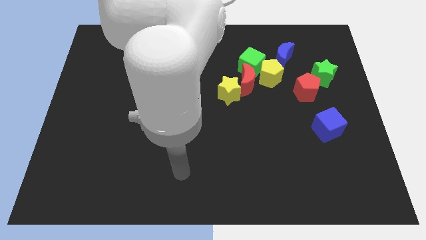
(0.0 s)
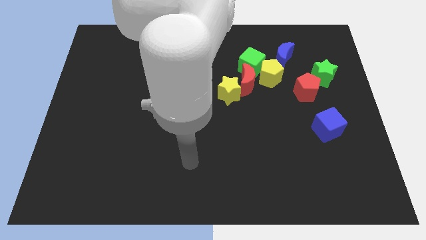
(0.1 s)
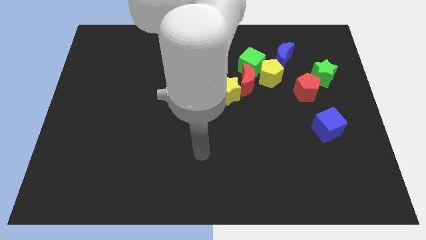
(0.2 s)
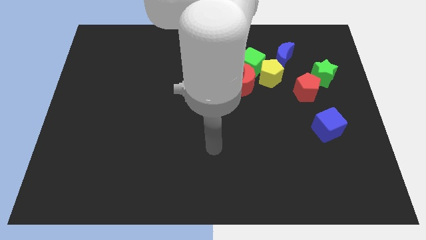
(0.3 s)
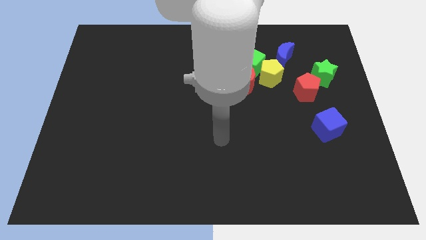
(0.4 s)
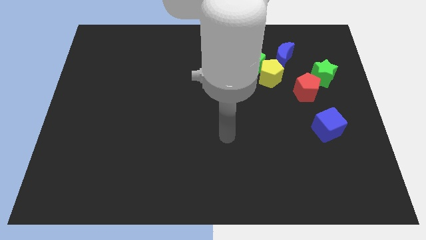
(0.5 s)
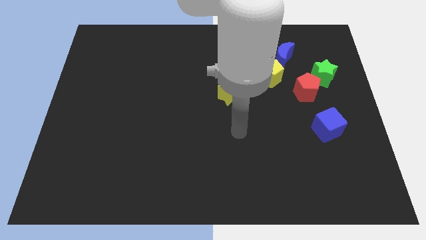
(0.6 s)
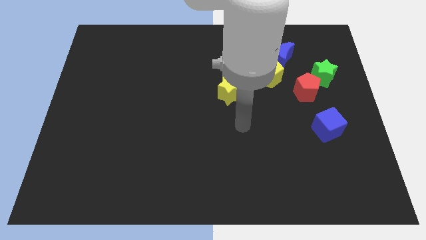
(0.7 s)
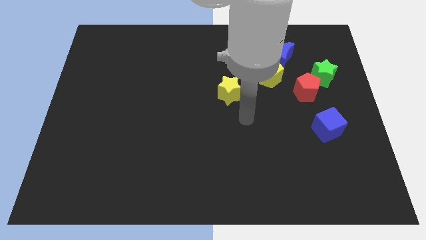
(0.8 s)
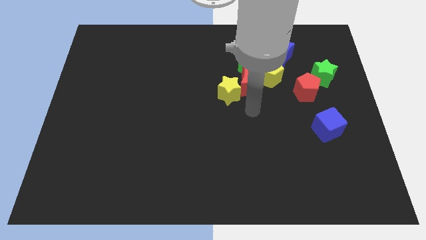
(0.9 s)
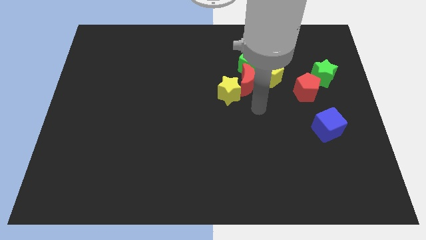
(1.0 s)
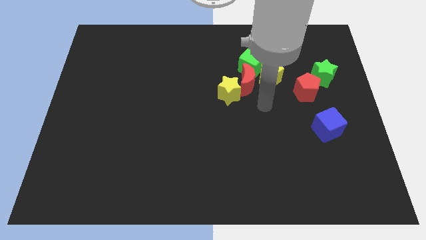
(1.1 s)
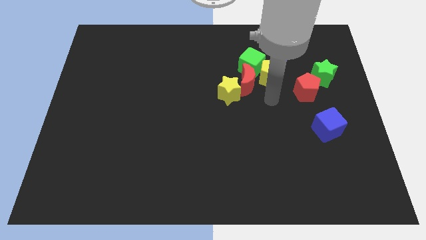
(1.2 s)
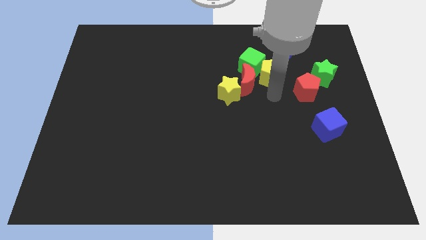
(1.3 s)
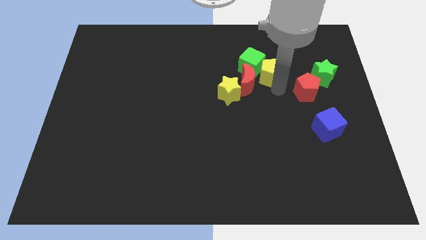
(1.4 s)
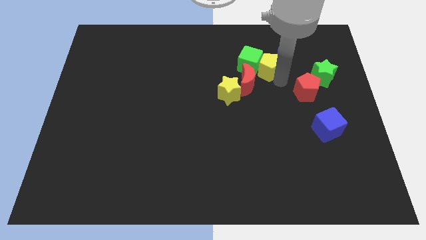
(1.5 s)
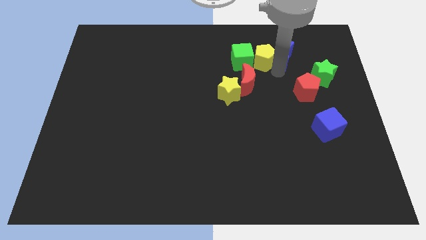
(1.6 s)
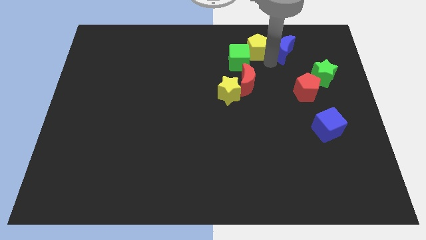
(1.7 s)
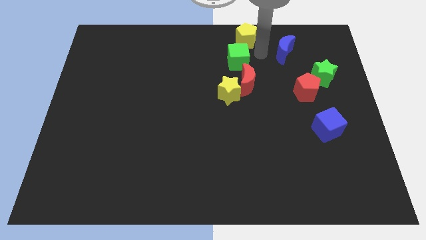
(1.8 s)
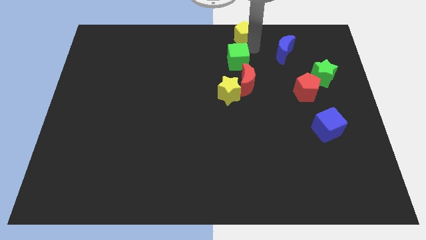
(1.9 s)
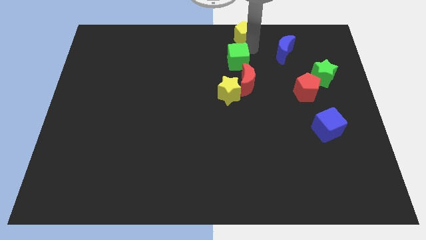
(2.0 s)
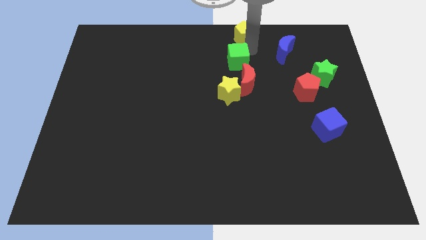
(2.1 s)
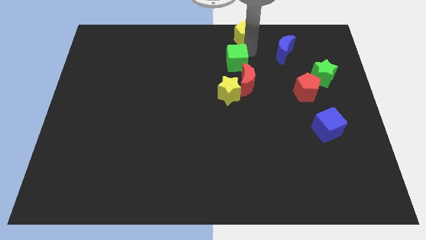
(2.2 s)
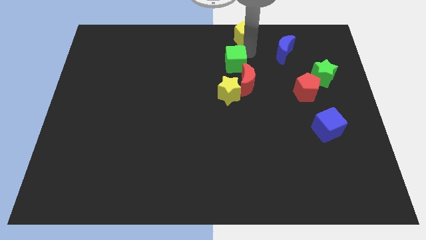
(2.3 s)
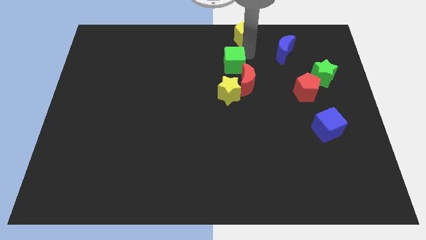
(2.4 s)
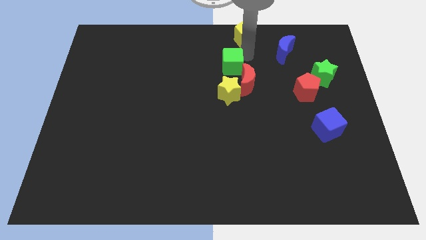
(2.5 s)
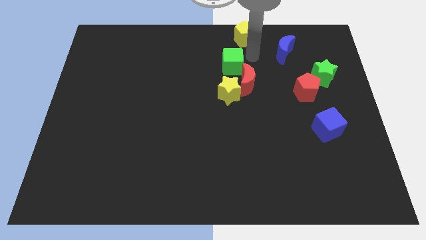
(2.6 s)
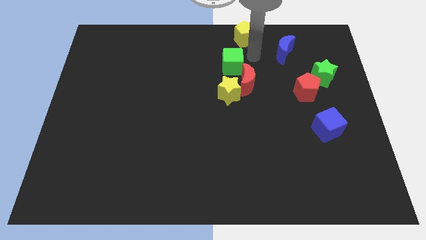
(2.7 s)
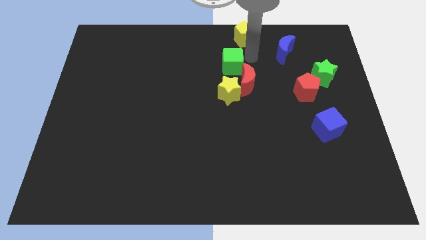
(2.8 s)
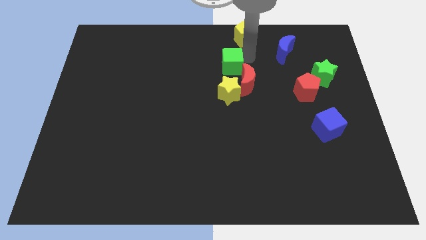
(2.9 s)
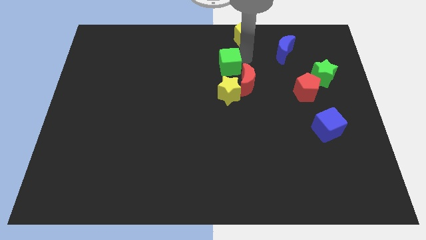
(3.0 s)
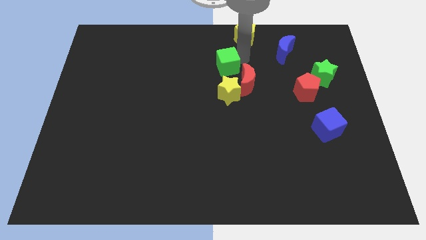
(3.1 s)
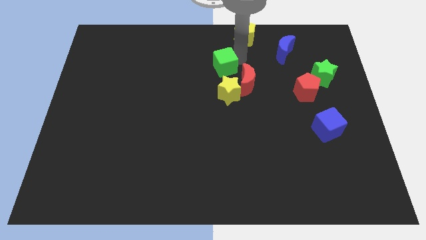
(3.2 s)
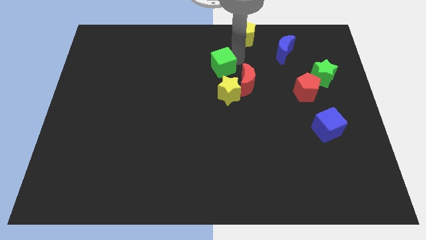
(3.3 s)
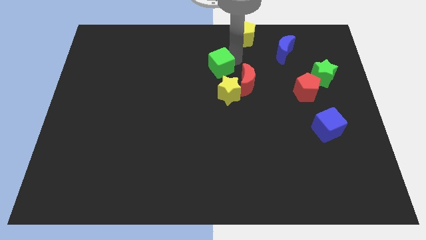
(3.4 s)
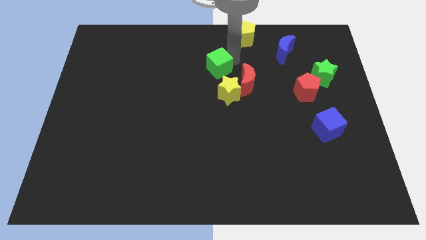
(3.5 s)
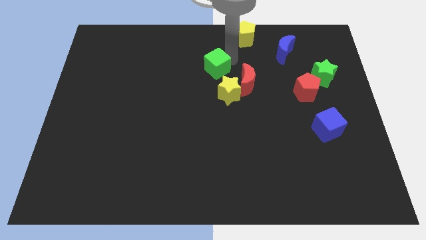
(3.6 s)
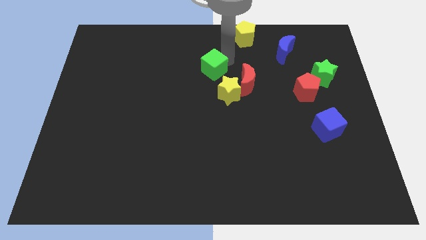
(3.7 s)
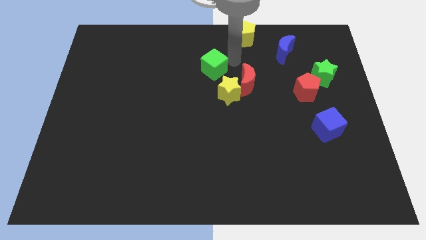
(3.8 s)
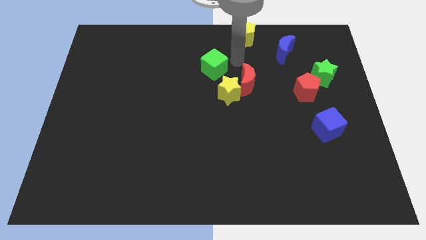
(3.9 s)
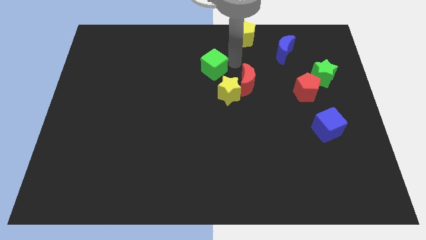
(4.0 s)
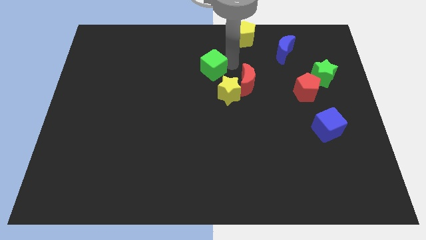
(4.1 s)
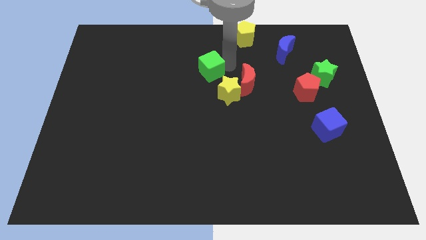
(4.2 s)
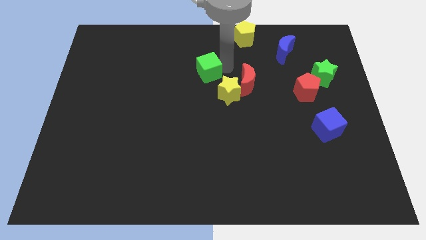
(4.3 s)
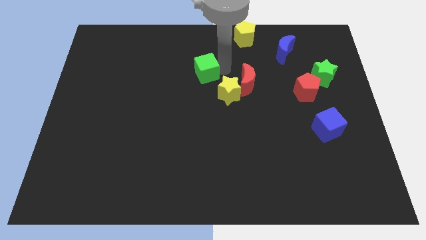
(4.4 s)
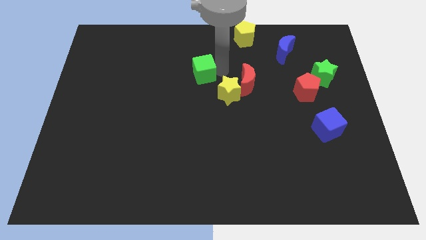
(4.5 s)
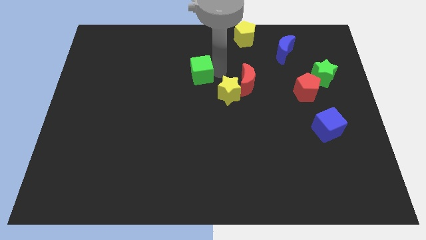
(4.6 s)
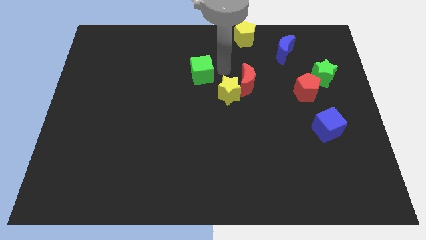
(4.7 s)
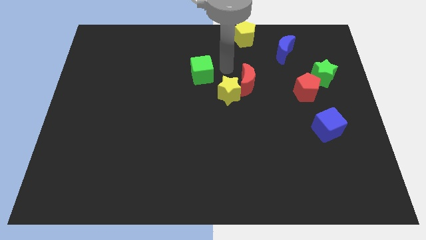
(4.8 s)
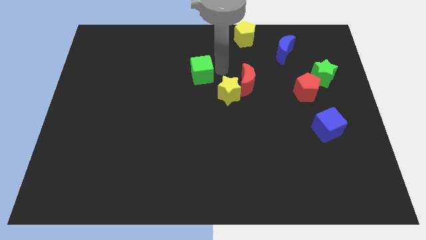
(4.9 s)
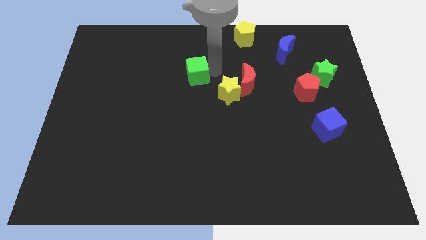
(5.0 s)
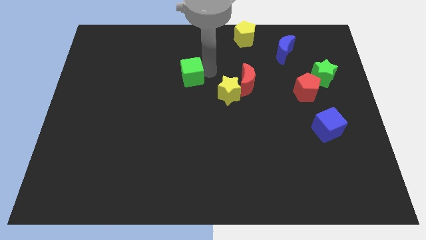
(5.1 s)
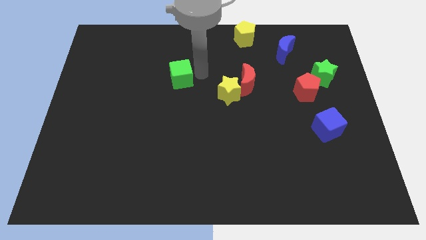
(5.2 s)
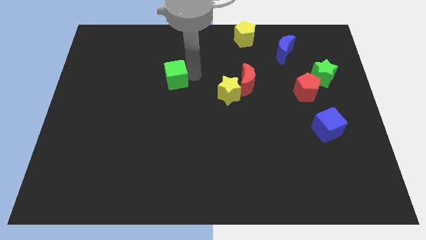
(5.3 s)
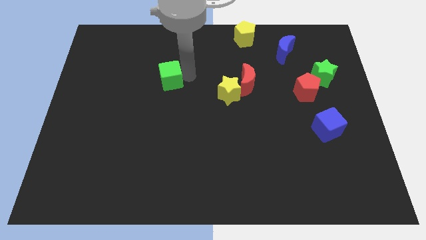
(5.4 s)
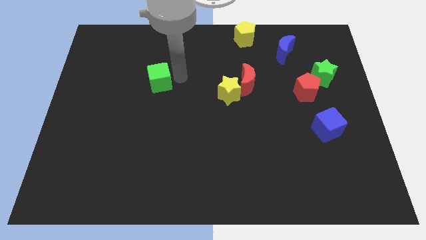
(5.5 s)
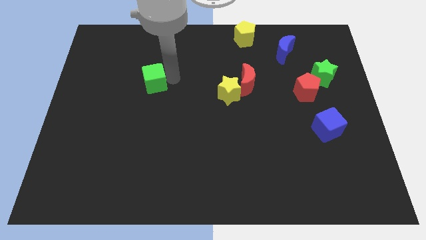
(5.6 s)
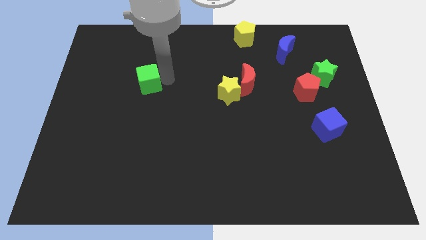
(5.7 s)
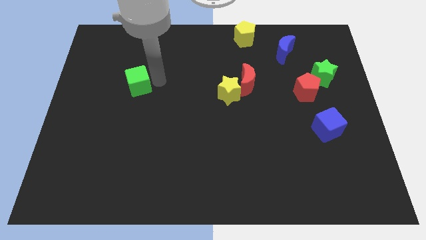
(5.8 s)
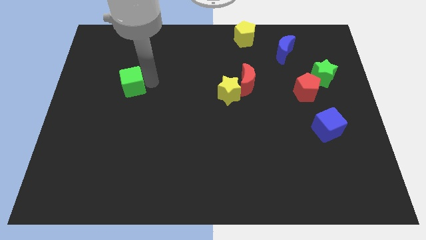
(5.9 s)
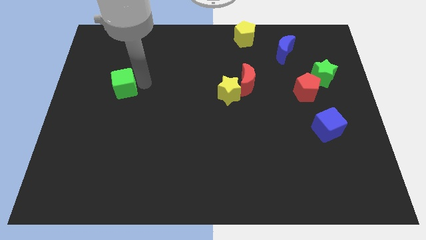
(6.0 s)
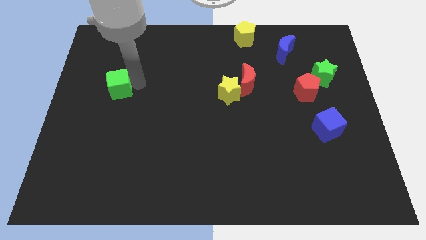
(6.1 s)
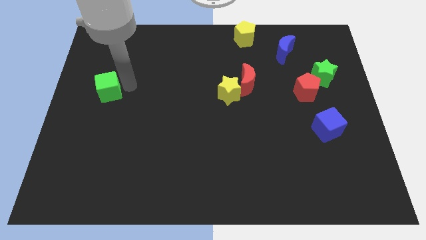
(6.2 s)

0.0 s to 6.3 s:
move the green cube to the left side of the board

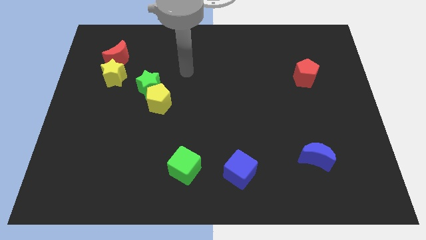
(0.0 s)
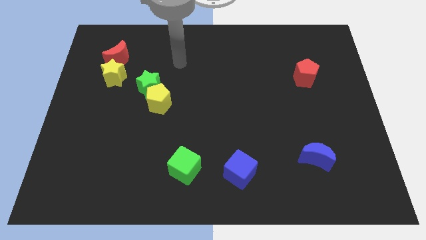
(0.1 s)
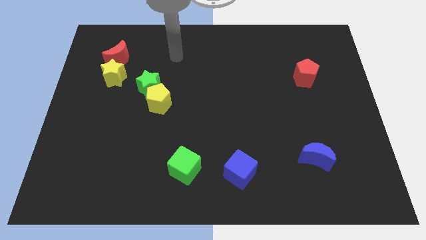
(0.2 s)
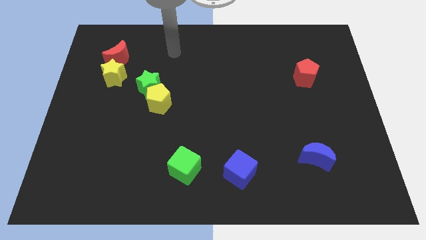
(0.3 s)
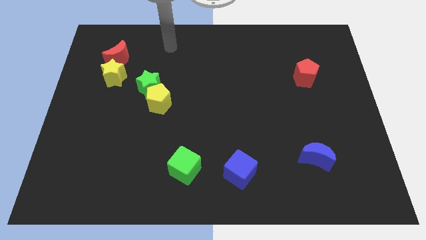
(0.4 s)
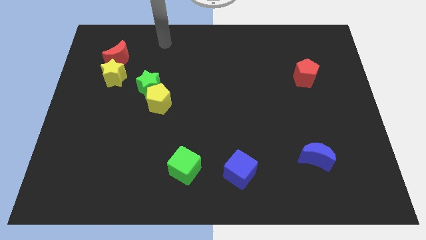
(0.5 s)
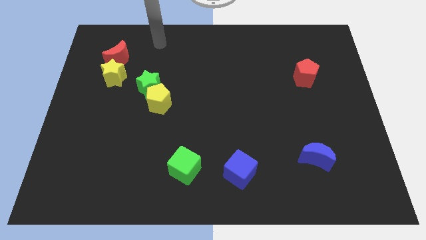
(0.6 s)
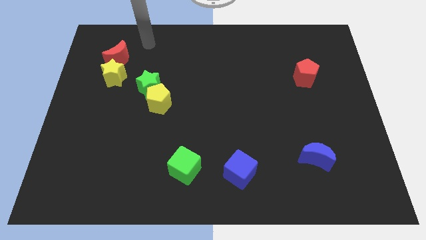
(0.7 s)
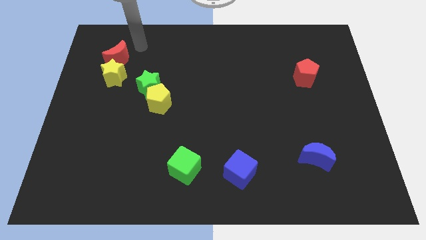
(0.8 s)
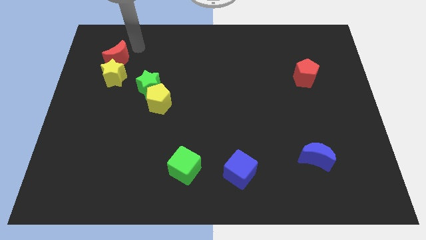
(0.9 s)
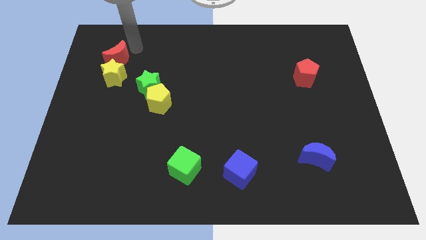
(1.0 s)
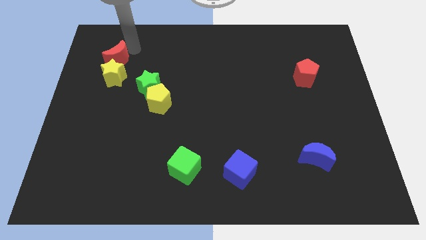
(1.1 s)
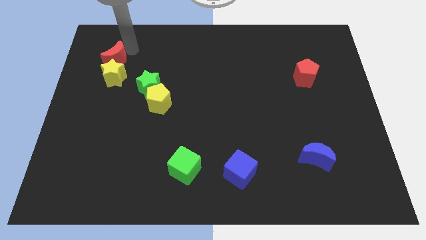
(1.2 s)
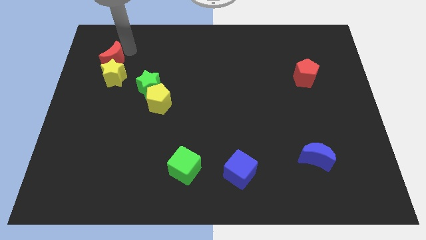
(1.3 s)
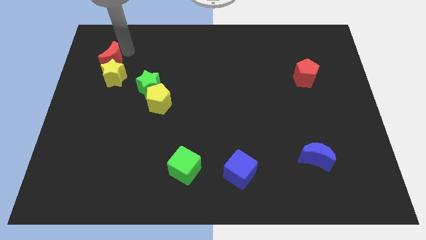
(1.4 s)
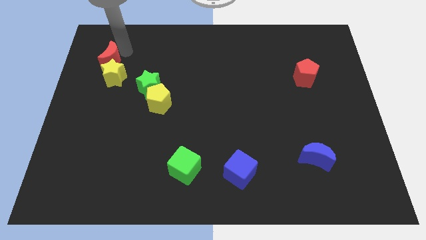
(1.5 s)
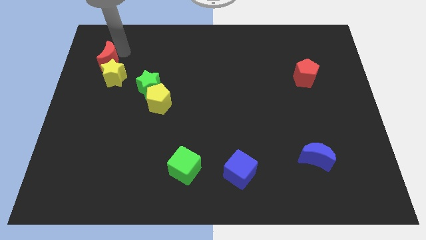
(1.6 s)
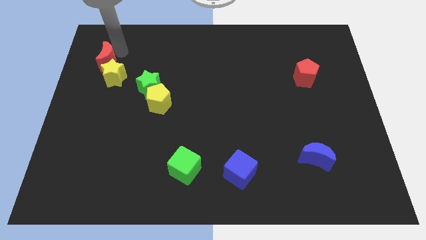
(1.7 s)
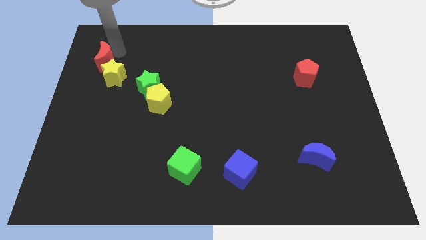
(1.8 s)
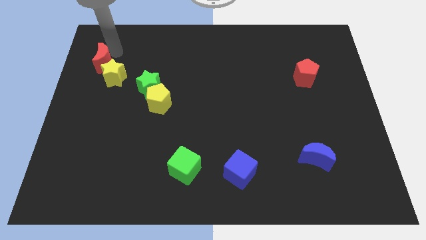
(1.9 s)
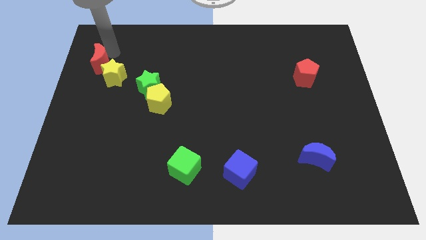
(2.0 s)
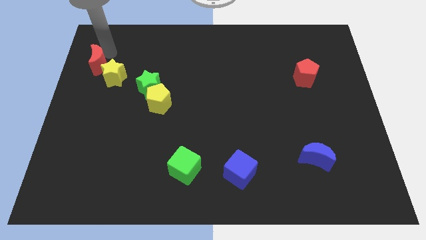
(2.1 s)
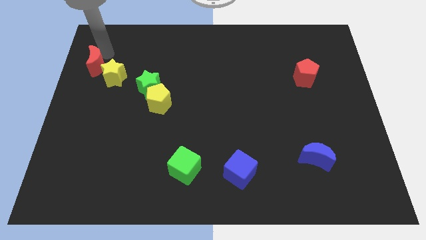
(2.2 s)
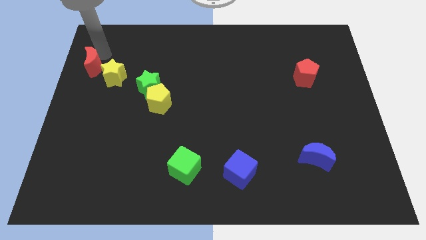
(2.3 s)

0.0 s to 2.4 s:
push the red moon to the left side of the board
